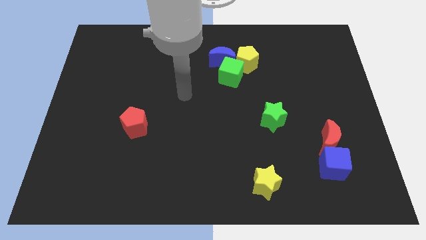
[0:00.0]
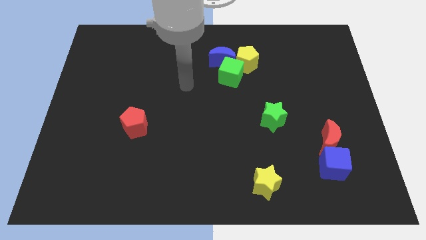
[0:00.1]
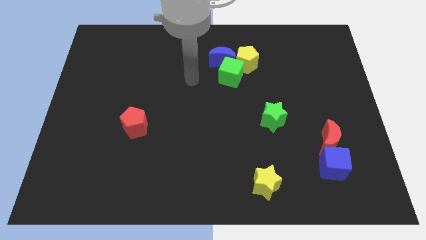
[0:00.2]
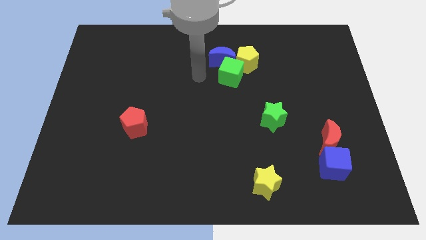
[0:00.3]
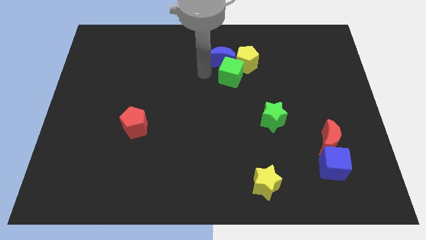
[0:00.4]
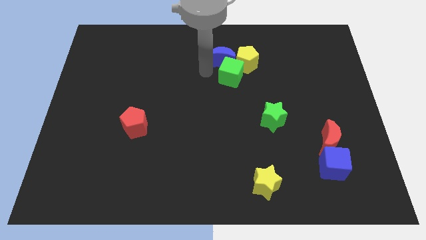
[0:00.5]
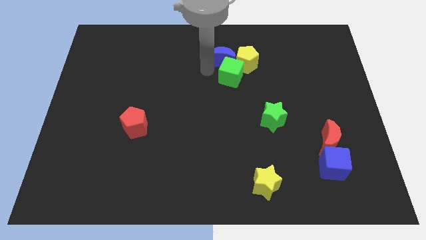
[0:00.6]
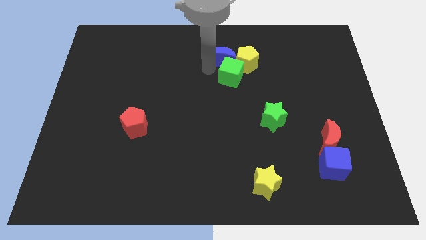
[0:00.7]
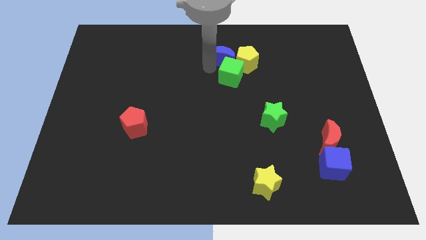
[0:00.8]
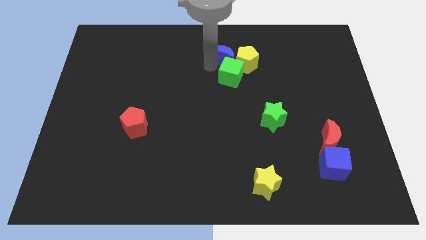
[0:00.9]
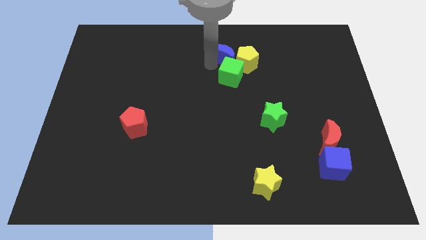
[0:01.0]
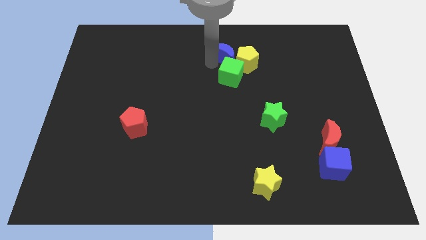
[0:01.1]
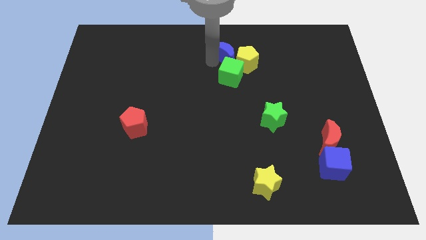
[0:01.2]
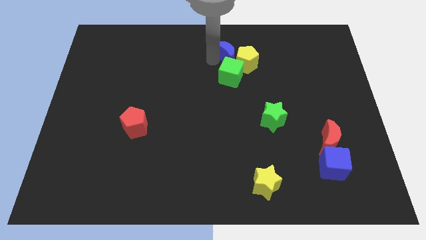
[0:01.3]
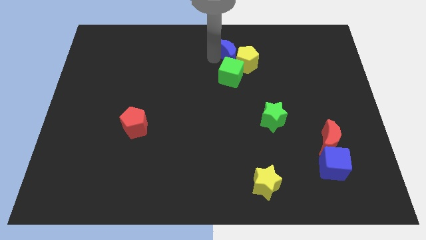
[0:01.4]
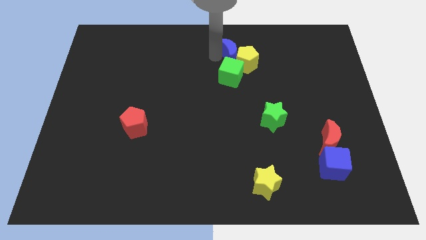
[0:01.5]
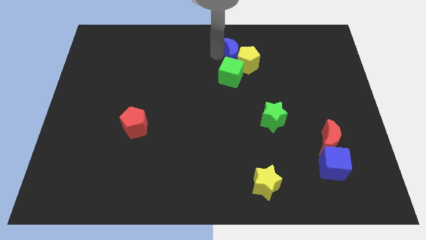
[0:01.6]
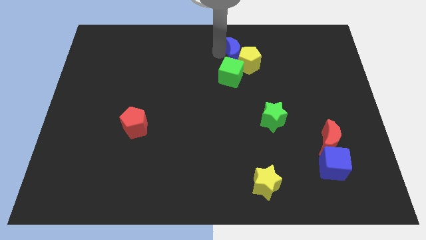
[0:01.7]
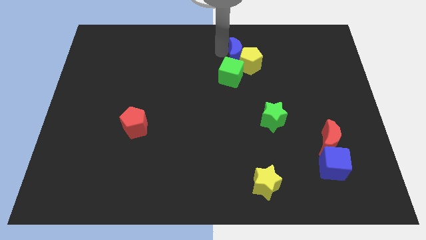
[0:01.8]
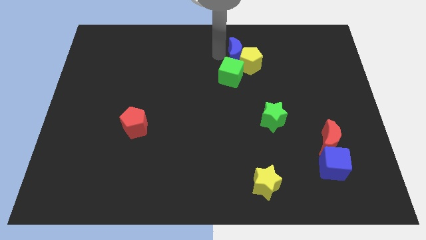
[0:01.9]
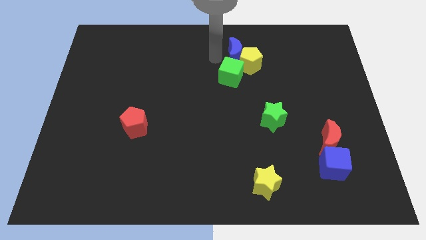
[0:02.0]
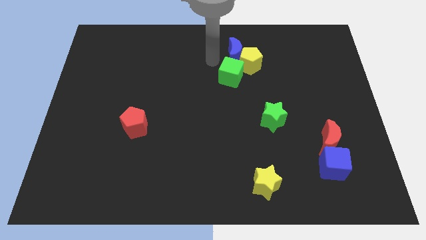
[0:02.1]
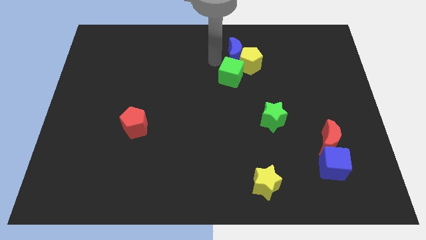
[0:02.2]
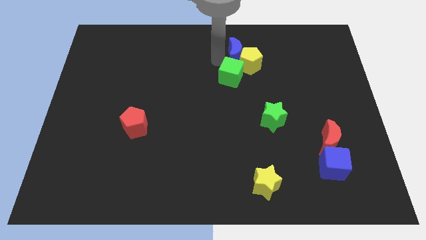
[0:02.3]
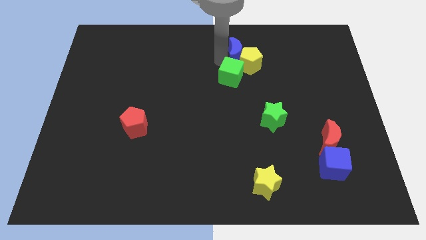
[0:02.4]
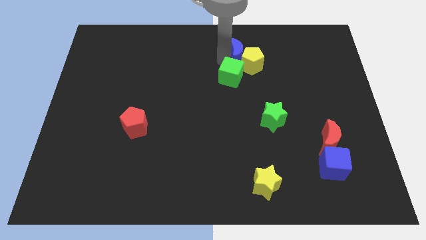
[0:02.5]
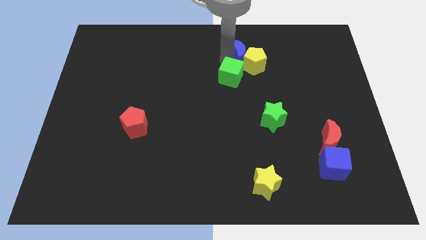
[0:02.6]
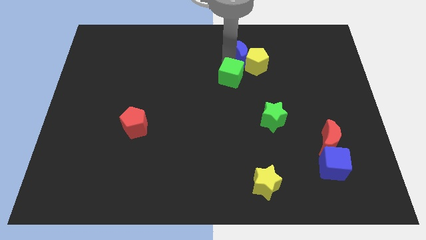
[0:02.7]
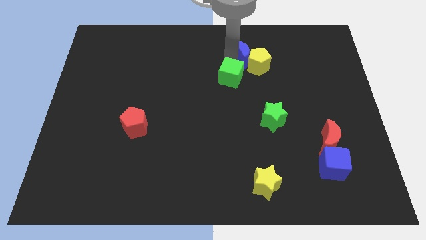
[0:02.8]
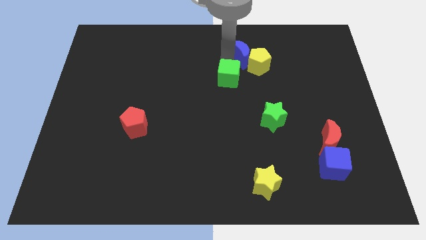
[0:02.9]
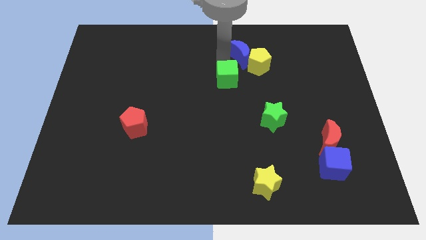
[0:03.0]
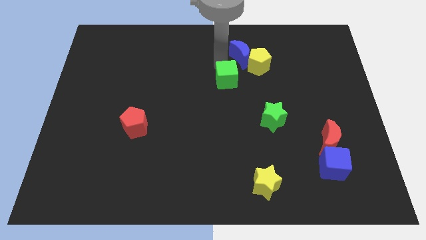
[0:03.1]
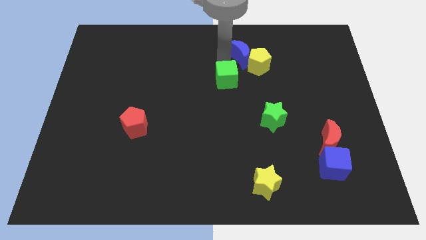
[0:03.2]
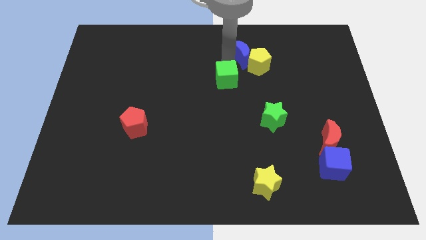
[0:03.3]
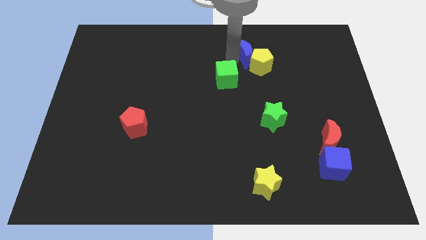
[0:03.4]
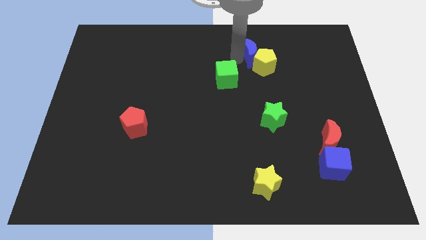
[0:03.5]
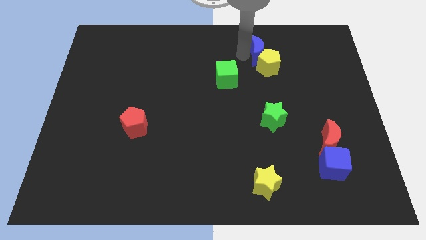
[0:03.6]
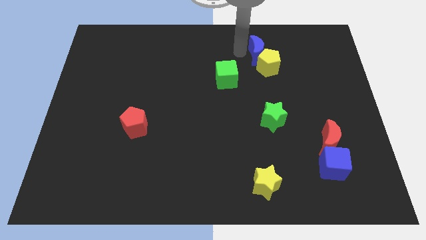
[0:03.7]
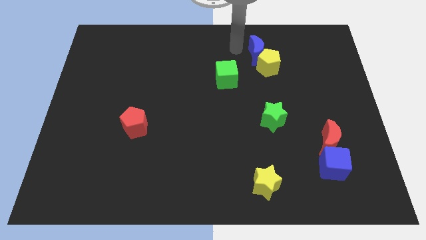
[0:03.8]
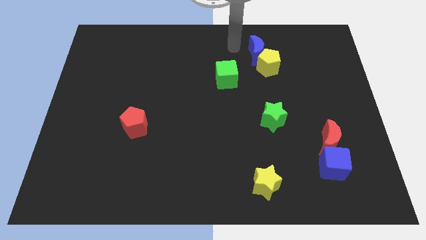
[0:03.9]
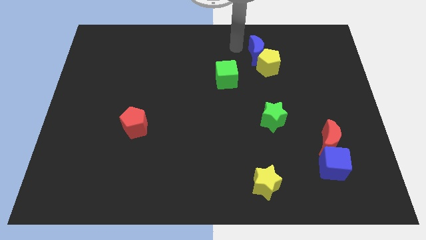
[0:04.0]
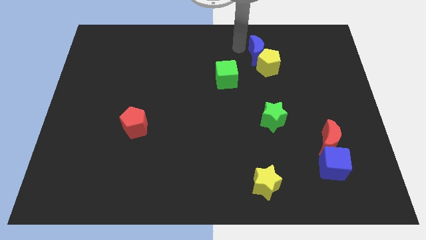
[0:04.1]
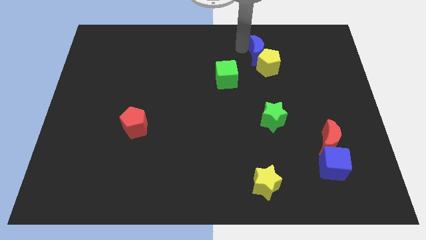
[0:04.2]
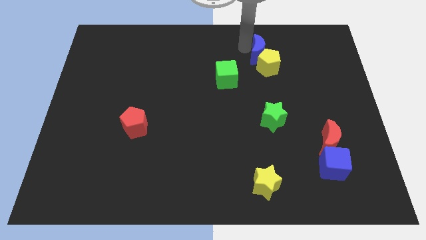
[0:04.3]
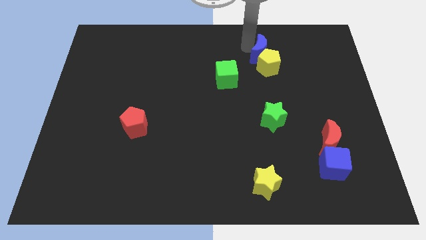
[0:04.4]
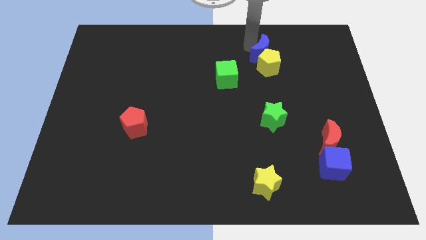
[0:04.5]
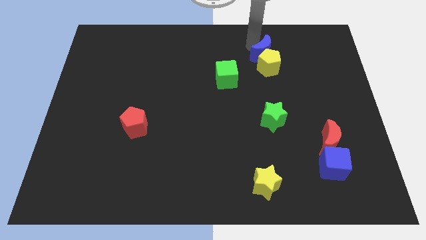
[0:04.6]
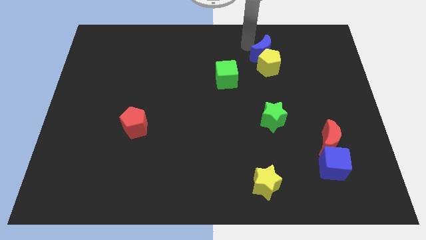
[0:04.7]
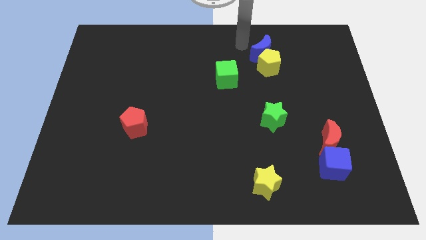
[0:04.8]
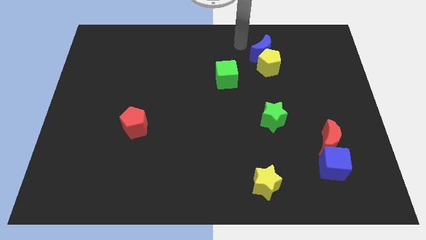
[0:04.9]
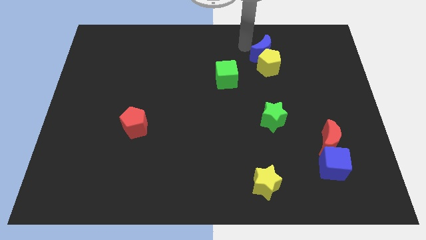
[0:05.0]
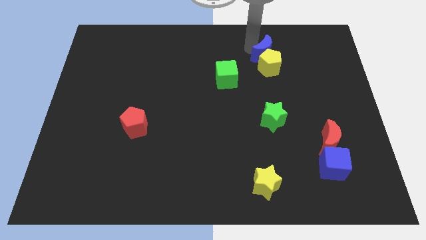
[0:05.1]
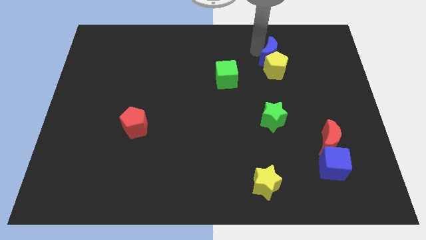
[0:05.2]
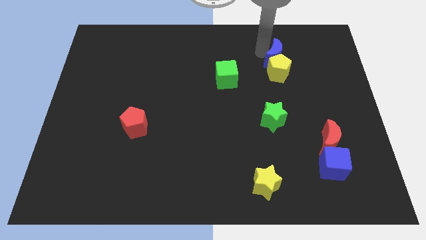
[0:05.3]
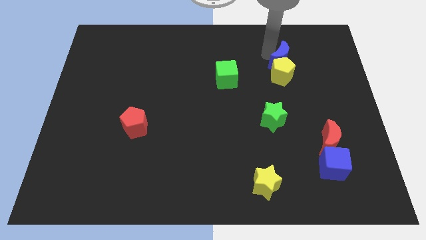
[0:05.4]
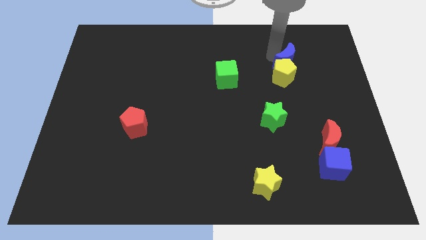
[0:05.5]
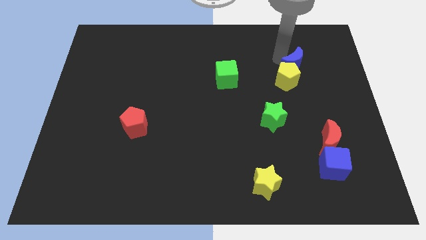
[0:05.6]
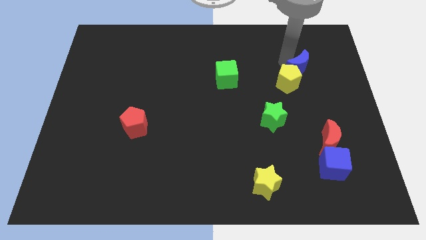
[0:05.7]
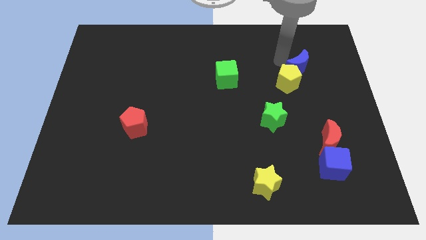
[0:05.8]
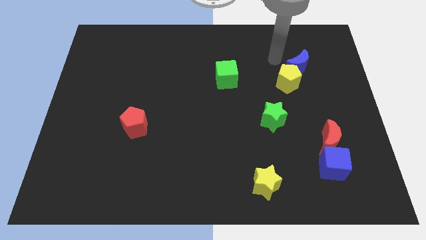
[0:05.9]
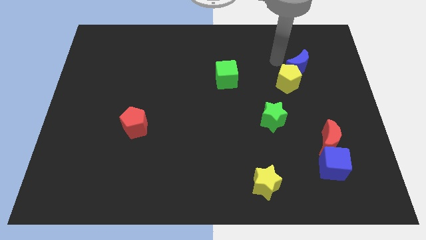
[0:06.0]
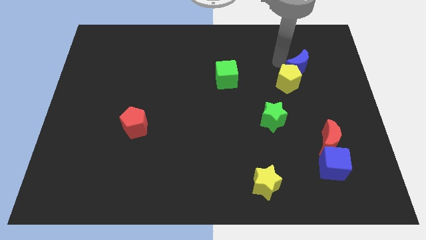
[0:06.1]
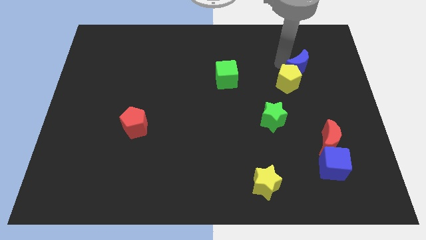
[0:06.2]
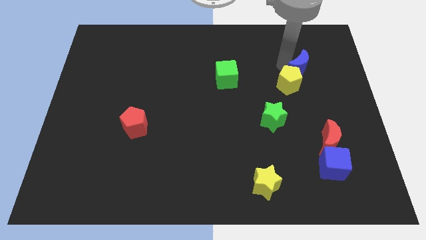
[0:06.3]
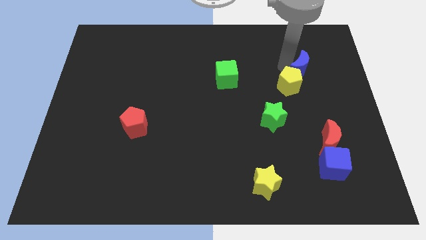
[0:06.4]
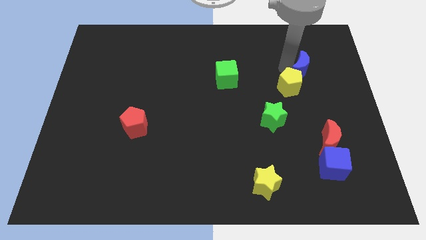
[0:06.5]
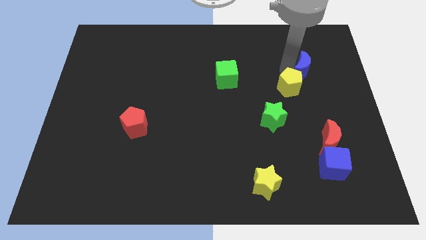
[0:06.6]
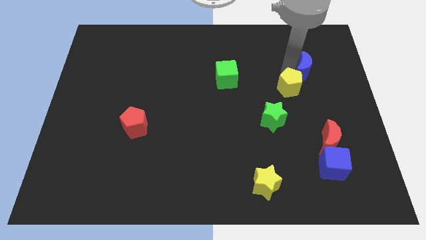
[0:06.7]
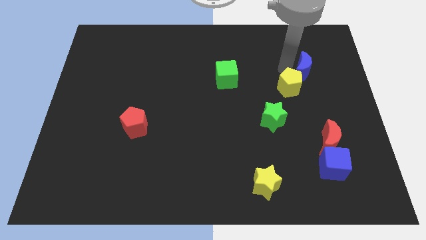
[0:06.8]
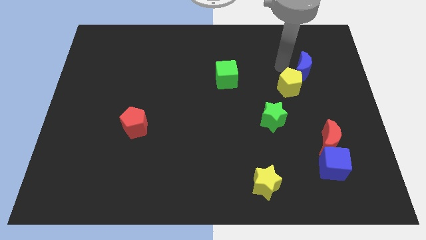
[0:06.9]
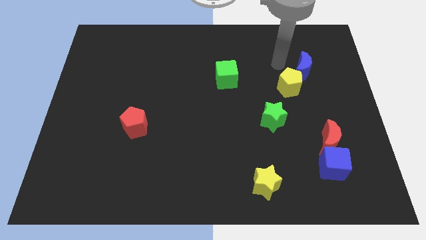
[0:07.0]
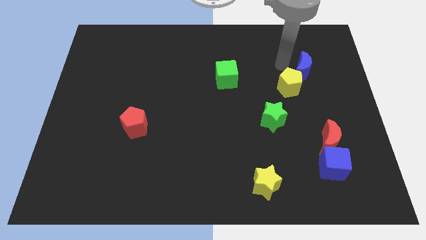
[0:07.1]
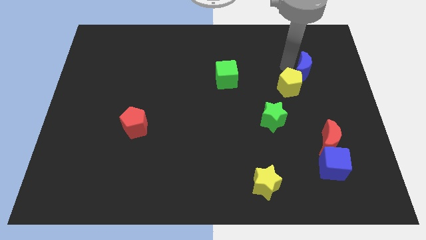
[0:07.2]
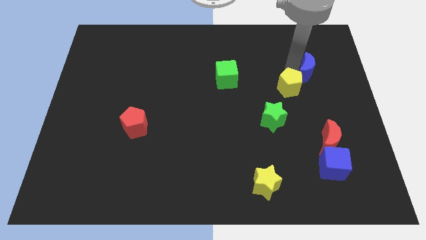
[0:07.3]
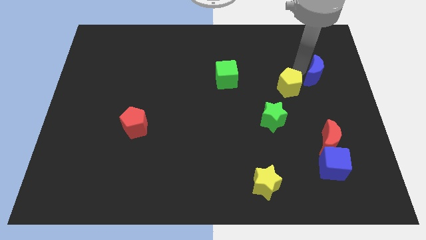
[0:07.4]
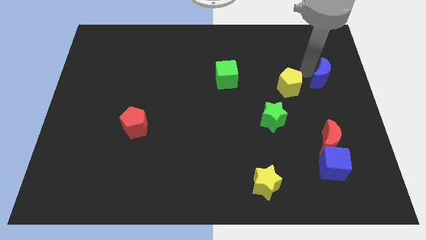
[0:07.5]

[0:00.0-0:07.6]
move the blue moon to the right side of the board
